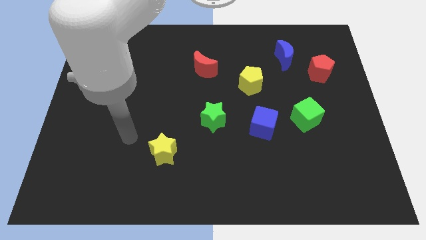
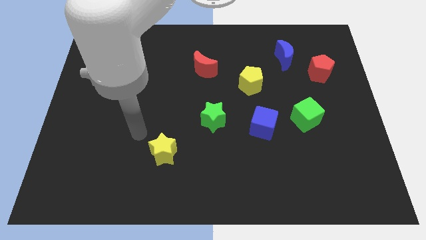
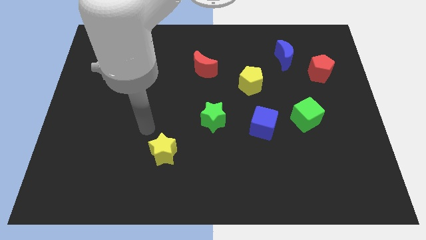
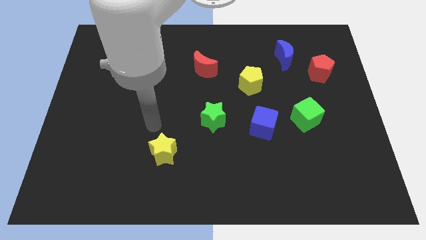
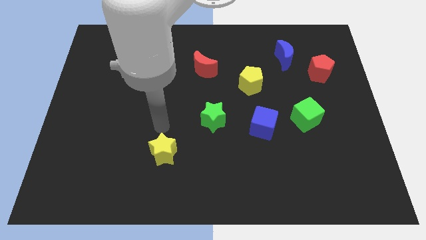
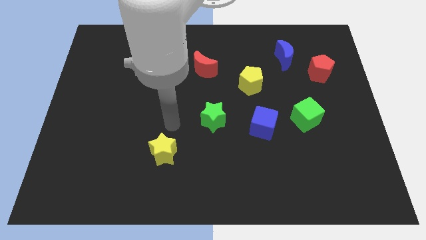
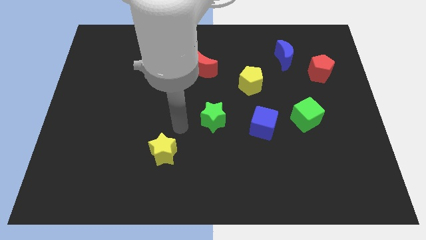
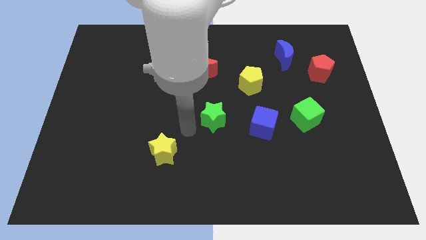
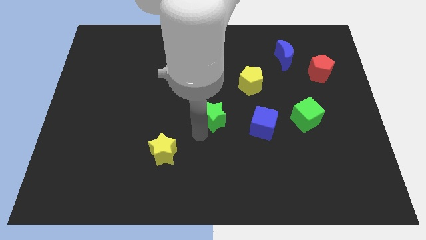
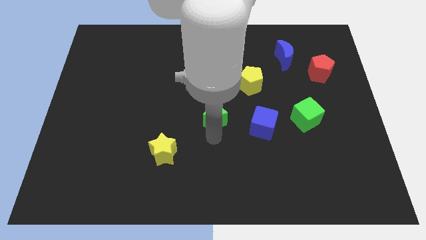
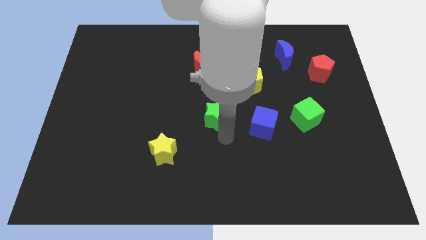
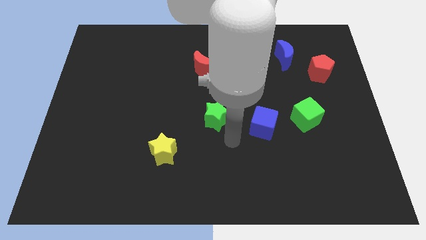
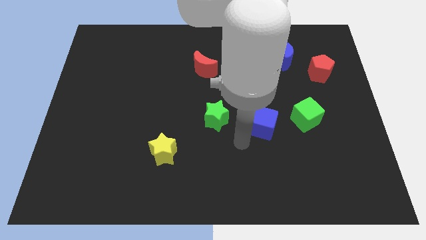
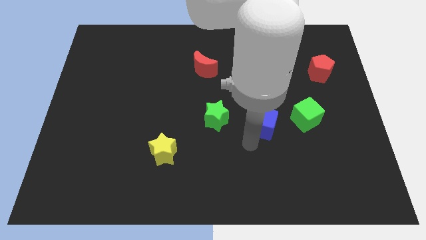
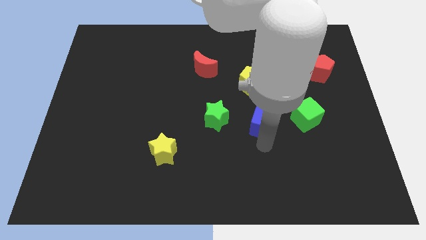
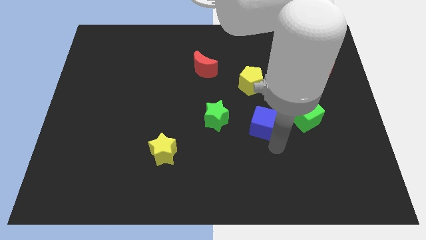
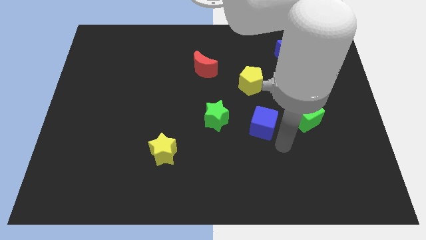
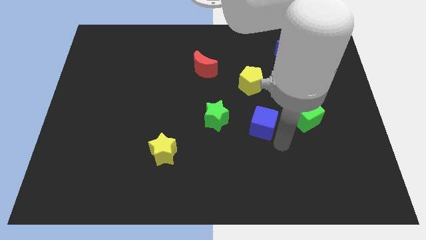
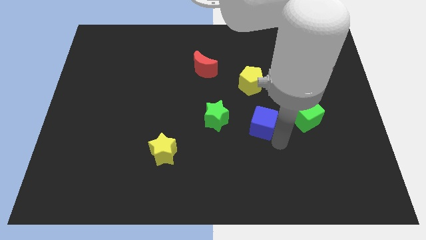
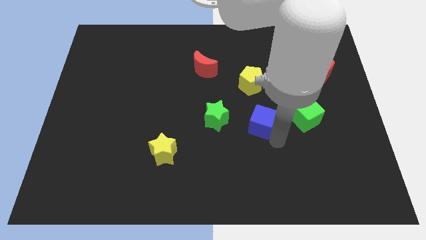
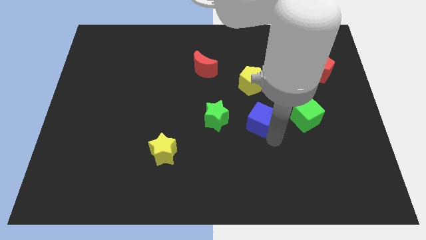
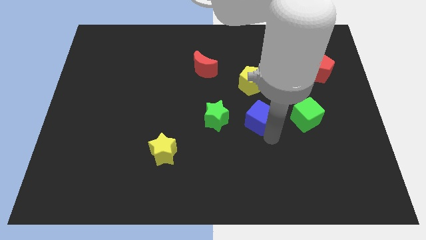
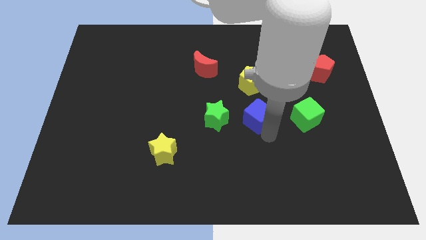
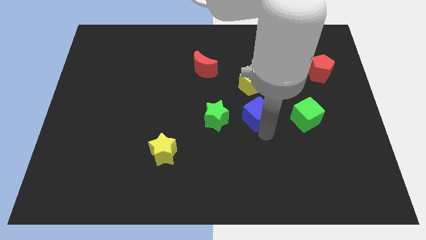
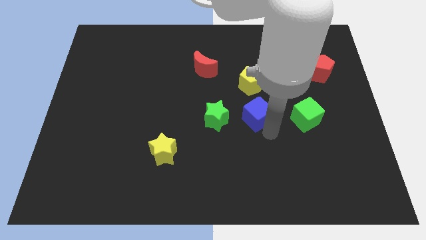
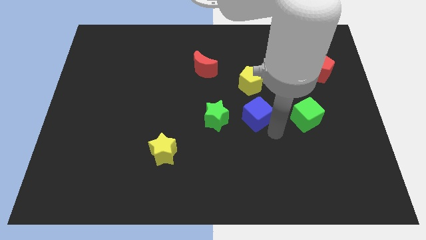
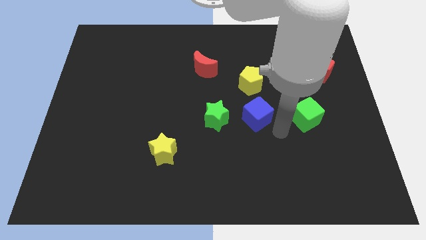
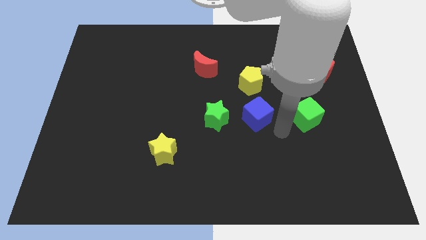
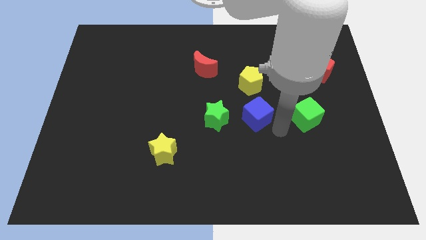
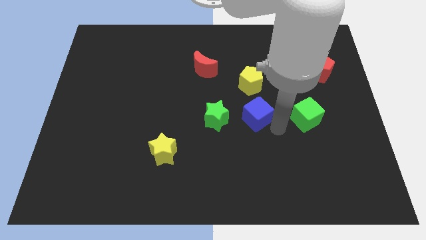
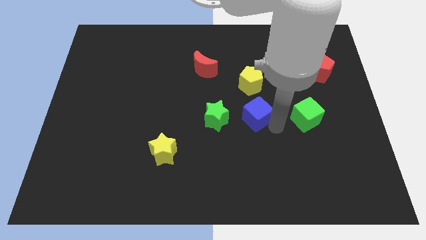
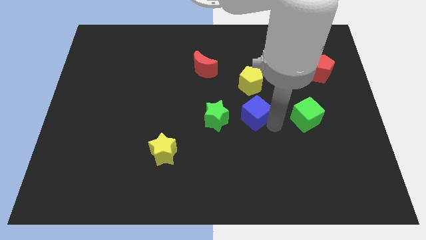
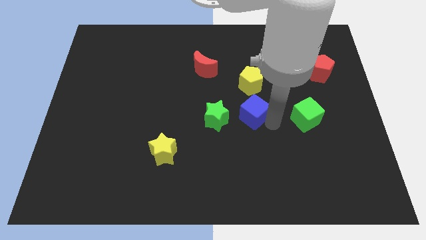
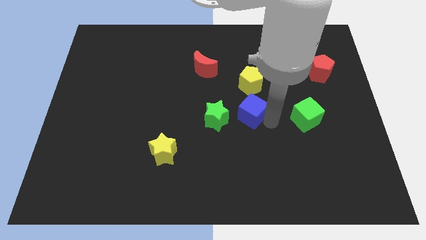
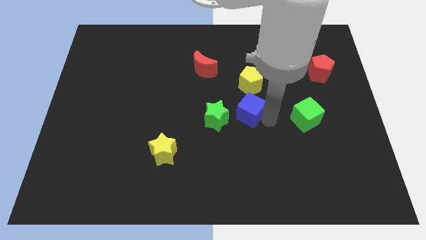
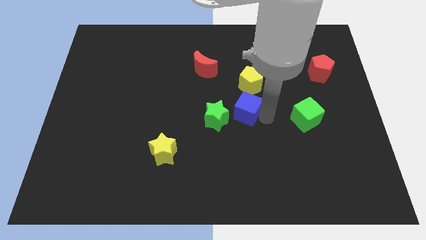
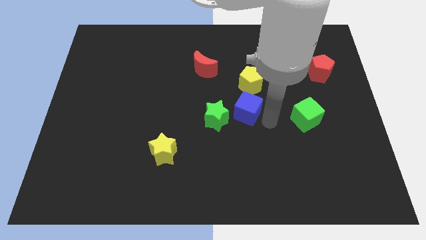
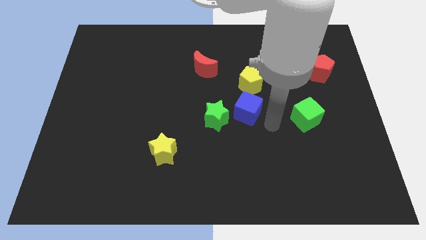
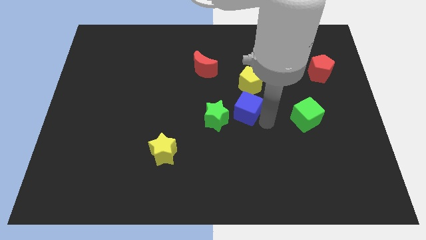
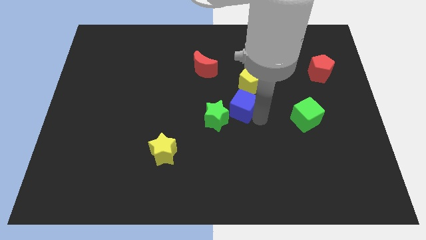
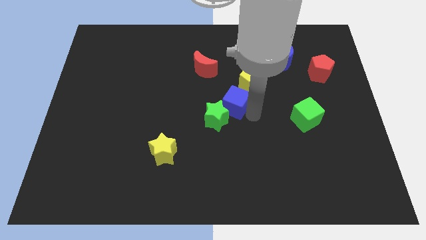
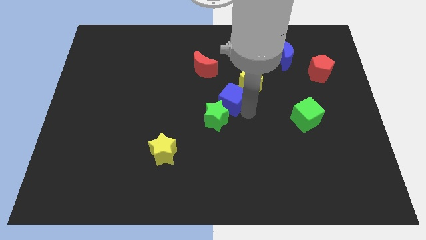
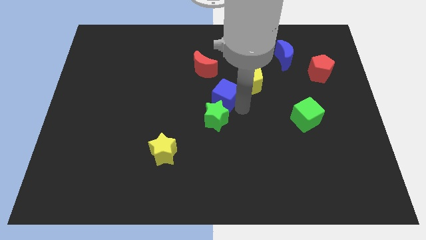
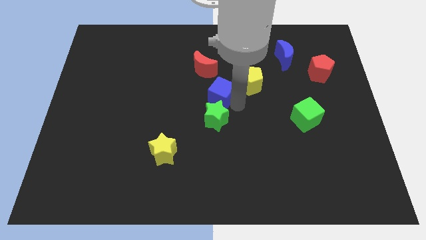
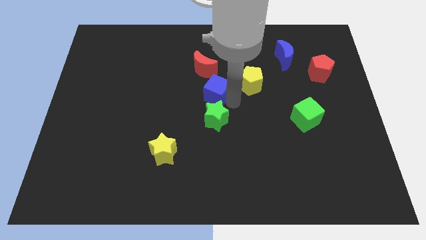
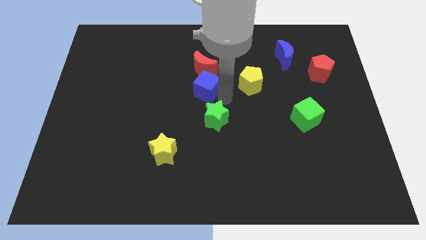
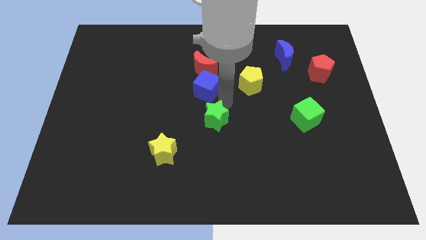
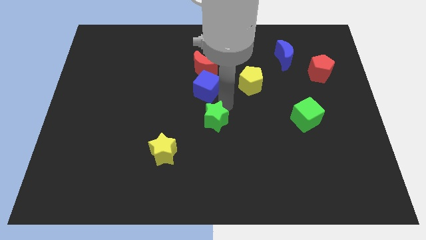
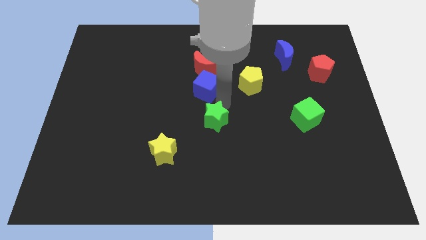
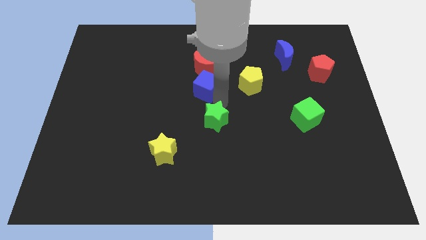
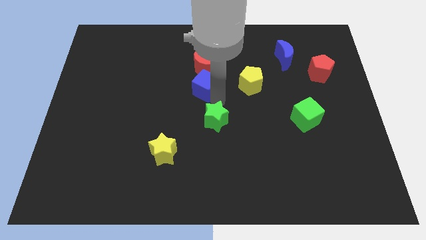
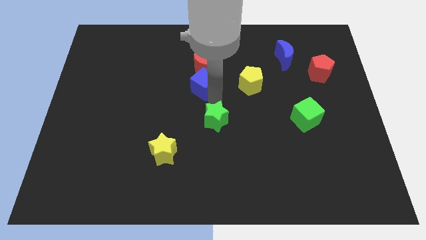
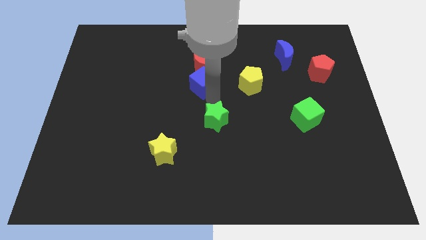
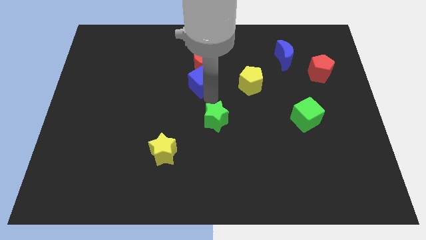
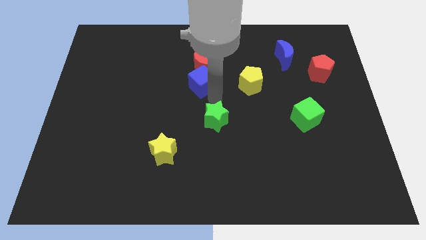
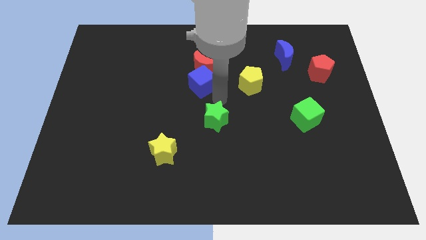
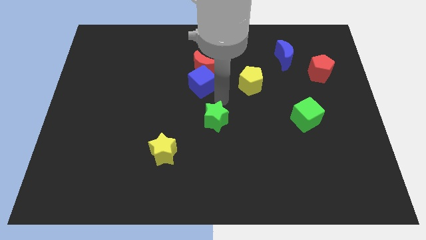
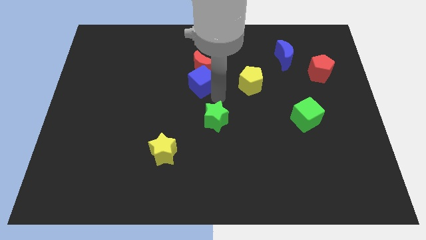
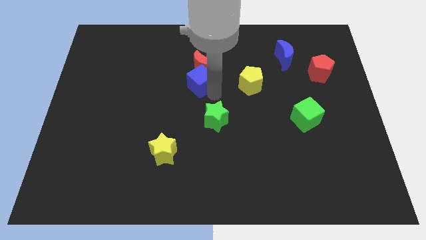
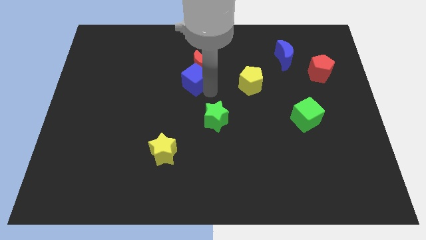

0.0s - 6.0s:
move the blue cube upwards and to the left diagonally

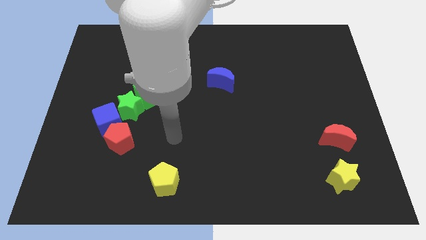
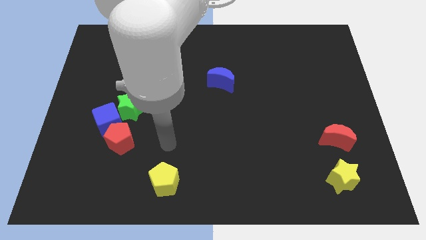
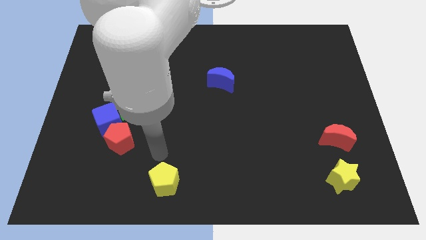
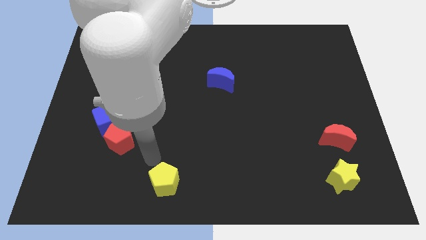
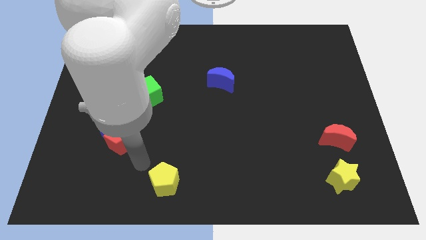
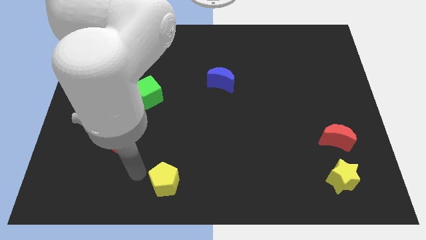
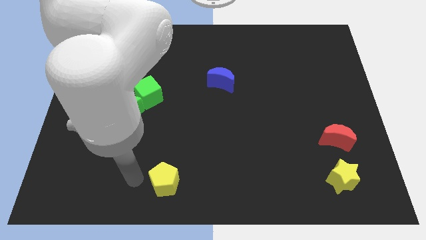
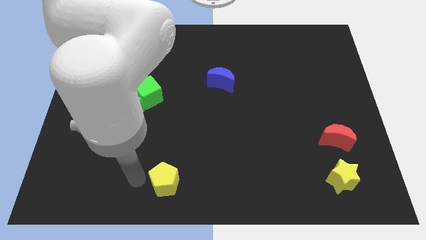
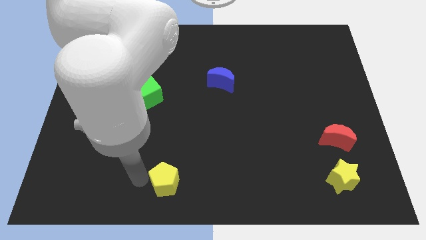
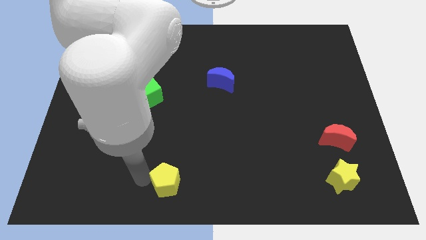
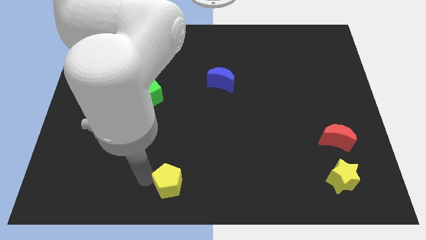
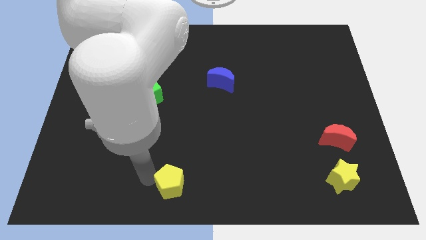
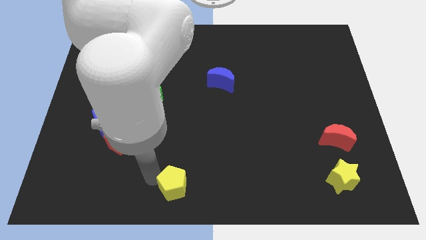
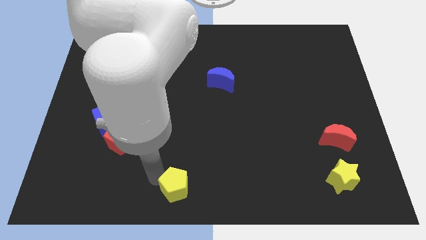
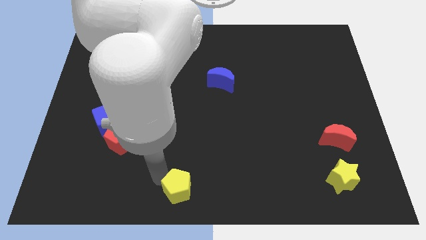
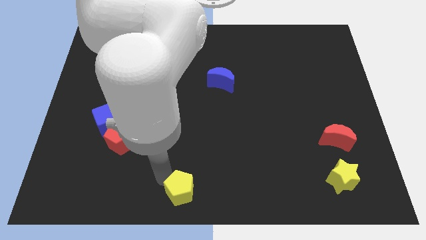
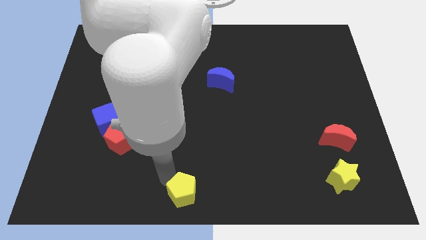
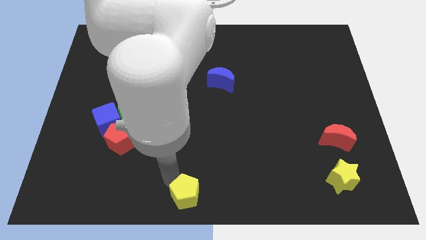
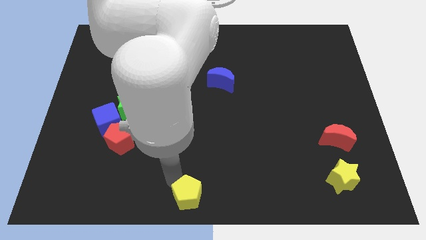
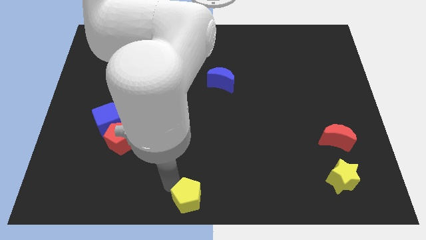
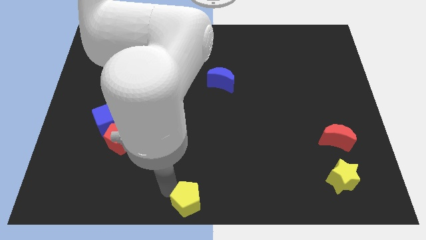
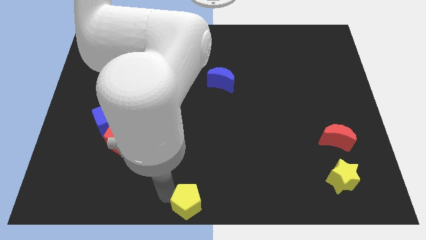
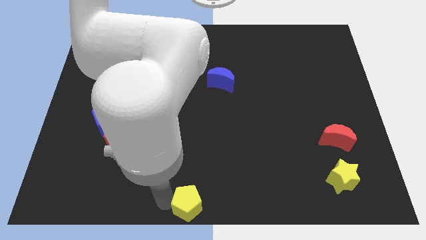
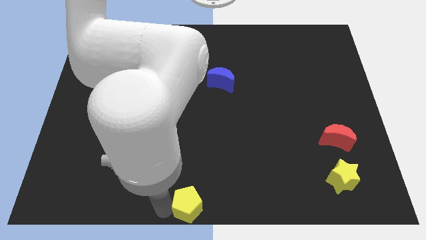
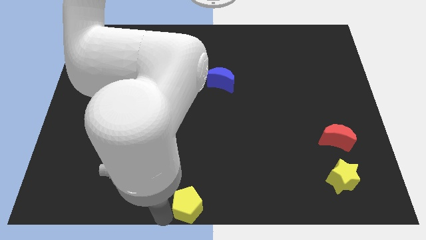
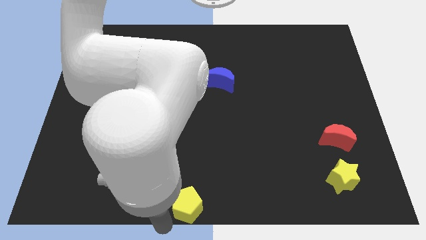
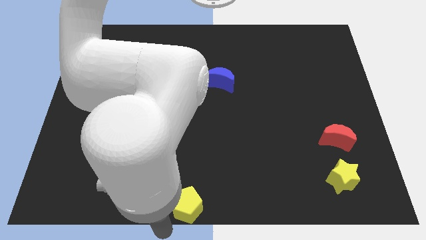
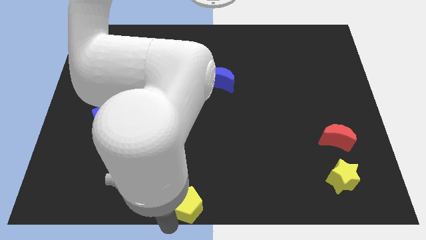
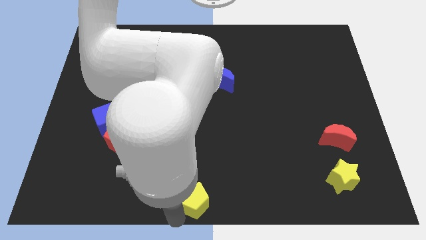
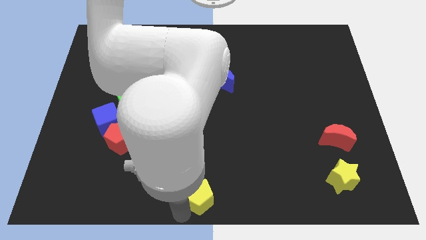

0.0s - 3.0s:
push the yellow pentagon a little bit to the right
